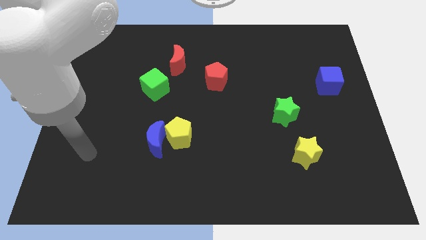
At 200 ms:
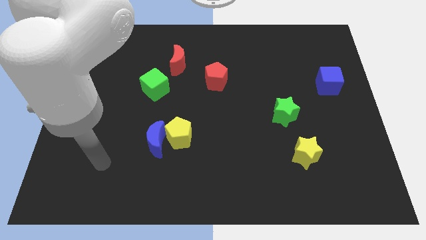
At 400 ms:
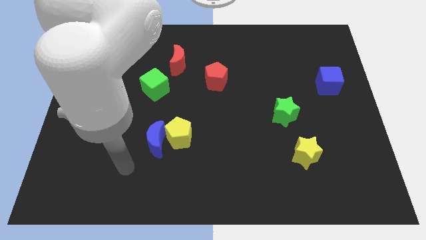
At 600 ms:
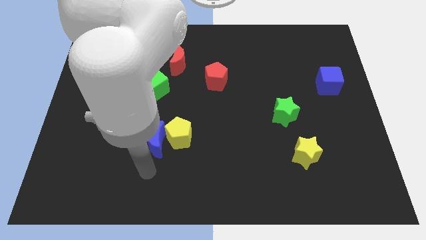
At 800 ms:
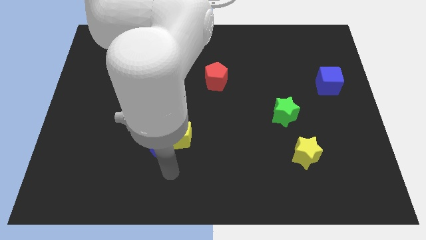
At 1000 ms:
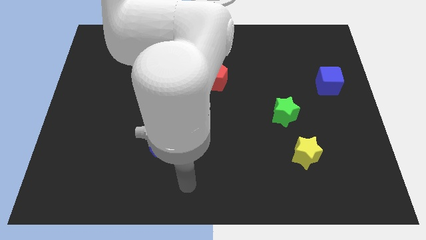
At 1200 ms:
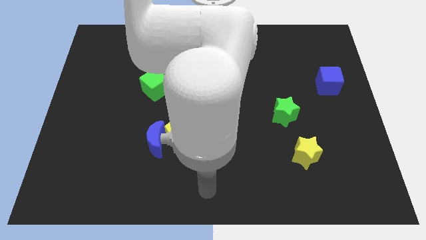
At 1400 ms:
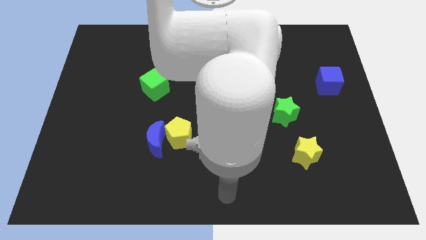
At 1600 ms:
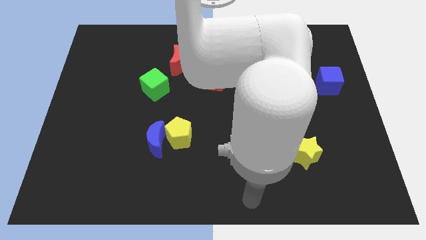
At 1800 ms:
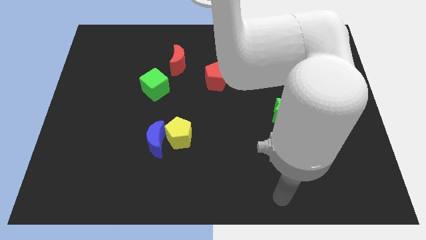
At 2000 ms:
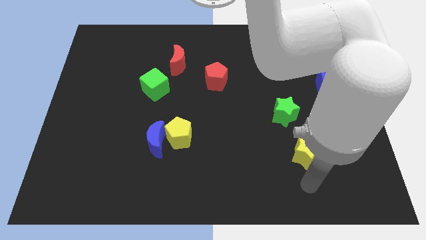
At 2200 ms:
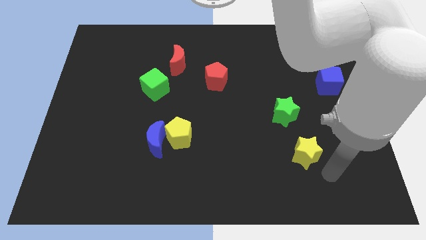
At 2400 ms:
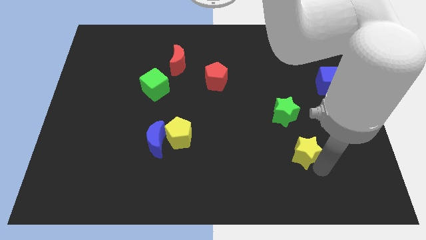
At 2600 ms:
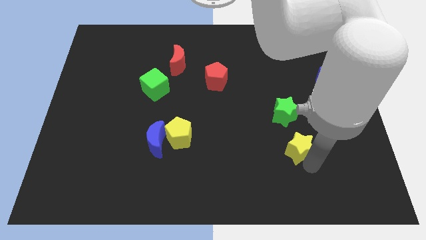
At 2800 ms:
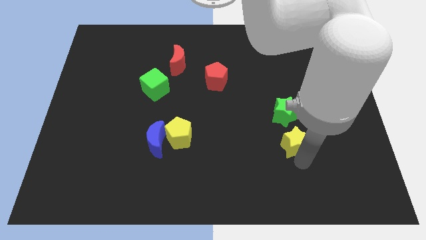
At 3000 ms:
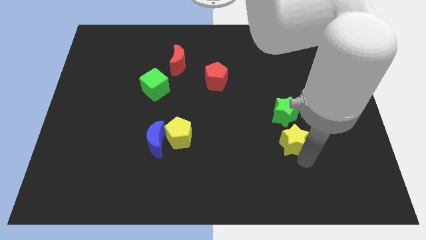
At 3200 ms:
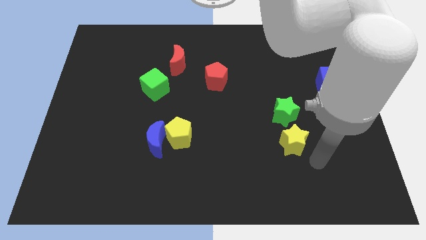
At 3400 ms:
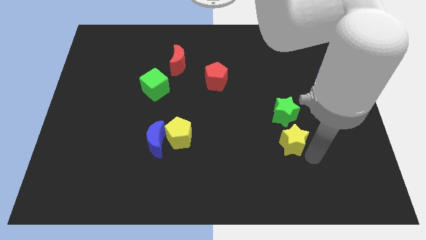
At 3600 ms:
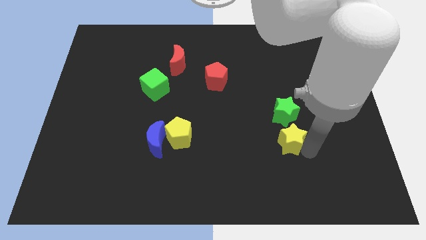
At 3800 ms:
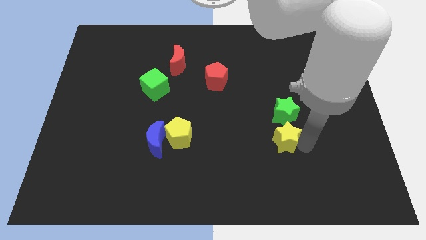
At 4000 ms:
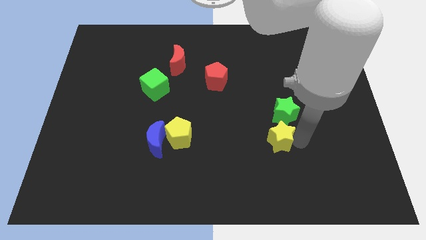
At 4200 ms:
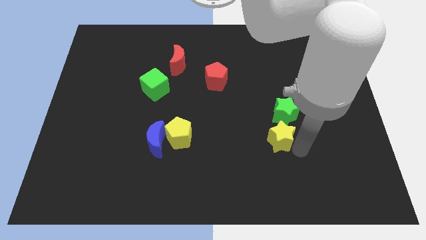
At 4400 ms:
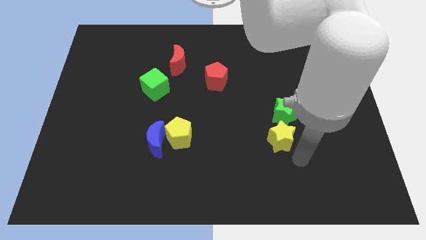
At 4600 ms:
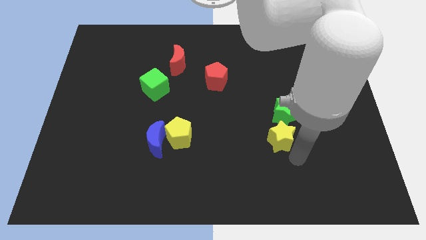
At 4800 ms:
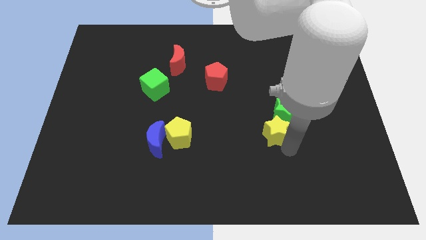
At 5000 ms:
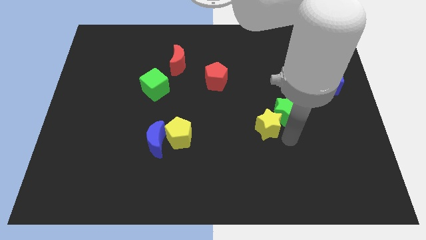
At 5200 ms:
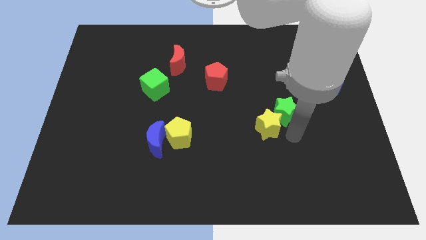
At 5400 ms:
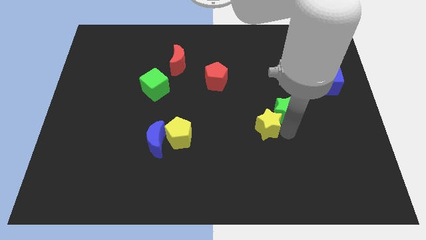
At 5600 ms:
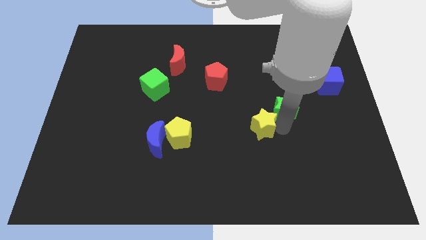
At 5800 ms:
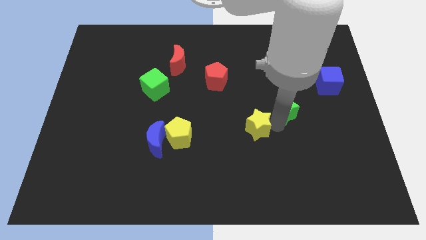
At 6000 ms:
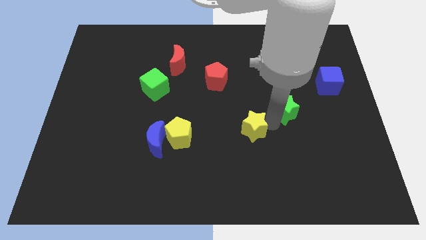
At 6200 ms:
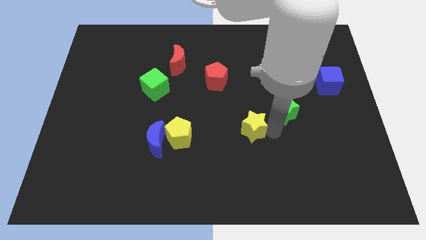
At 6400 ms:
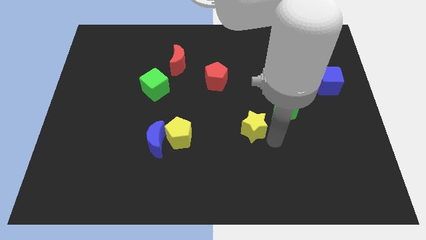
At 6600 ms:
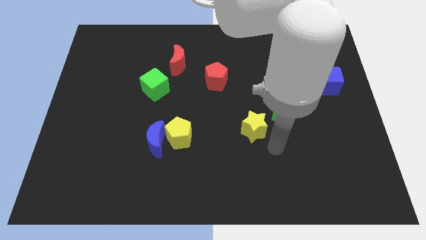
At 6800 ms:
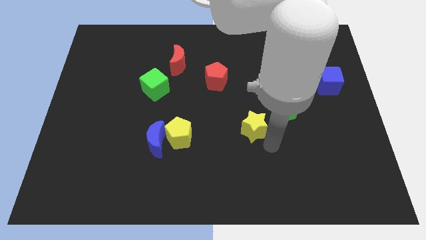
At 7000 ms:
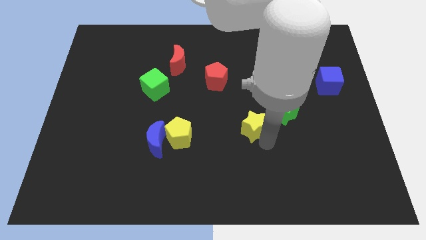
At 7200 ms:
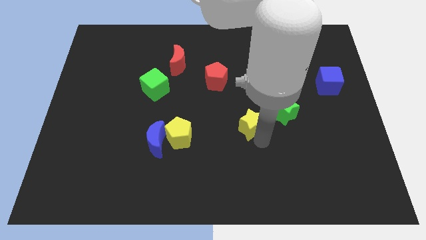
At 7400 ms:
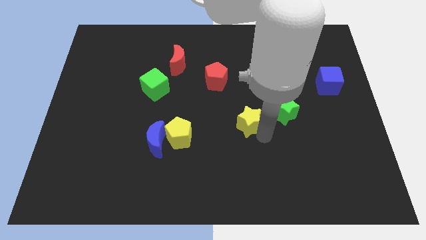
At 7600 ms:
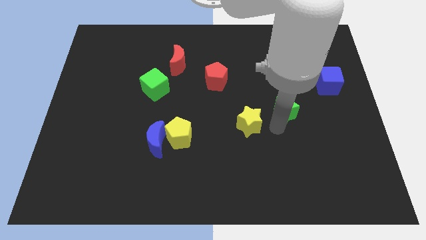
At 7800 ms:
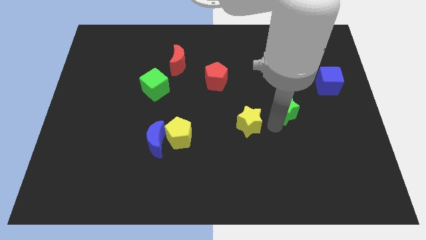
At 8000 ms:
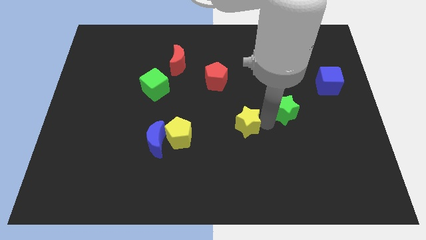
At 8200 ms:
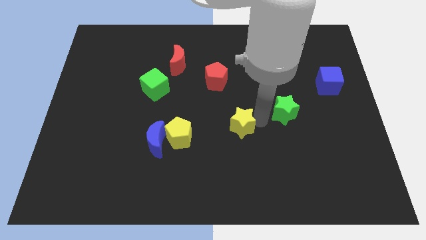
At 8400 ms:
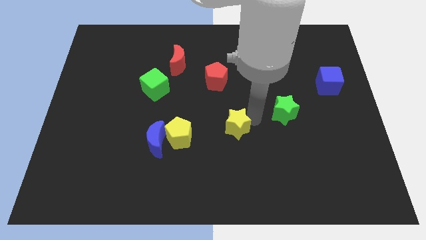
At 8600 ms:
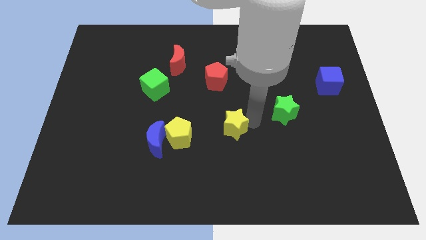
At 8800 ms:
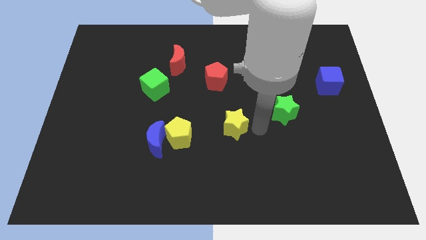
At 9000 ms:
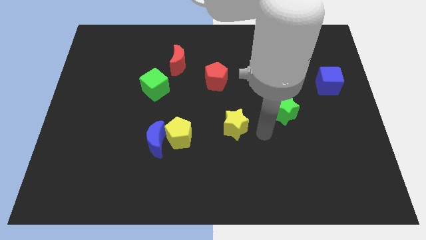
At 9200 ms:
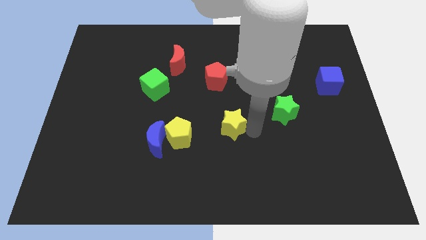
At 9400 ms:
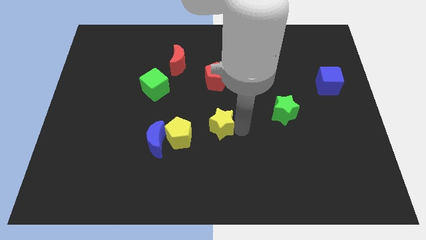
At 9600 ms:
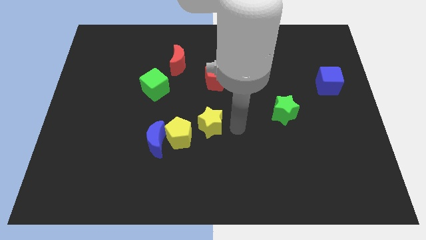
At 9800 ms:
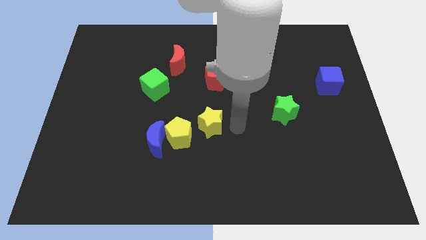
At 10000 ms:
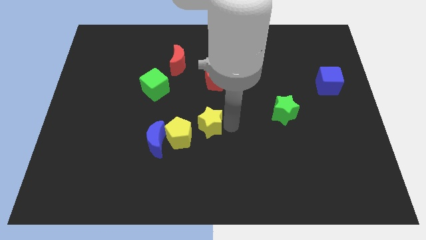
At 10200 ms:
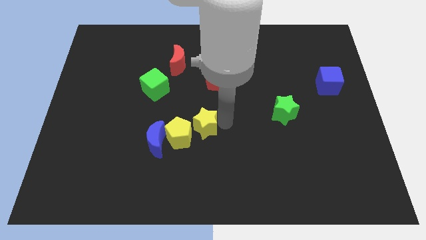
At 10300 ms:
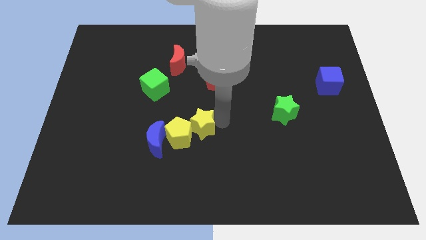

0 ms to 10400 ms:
slide the yellow star diagonally up and to the right of the blue moon

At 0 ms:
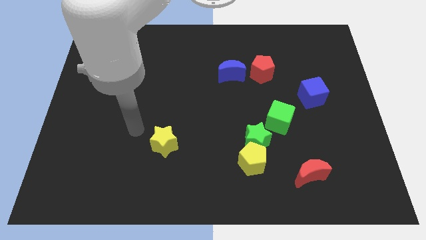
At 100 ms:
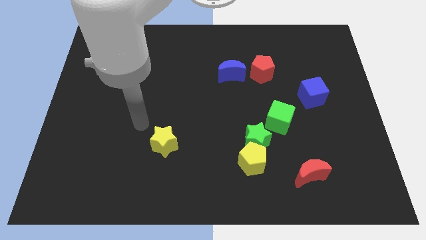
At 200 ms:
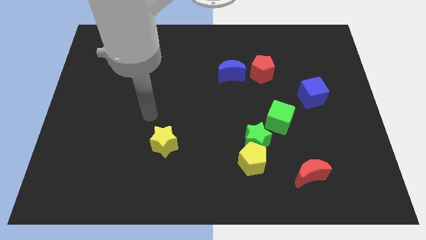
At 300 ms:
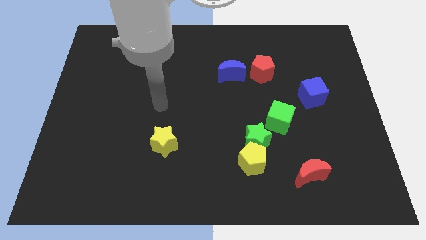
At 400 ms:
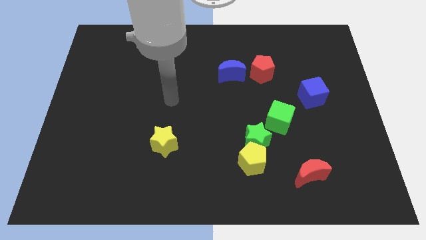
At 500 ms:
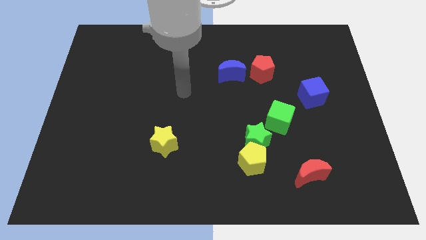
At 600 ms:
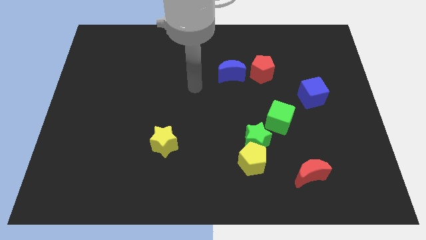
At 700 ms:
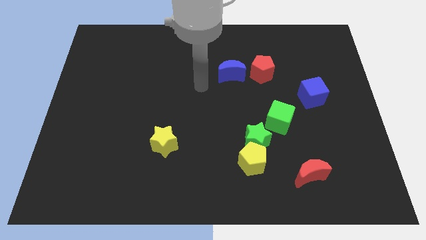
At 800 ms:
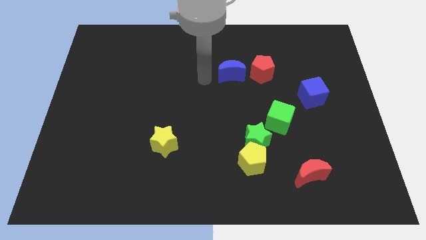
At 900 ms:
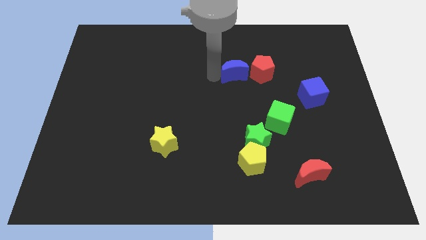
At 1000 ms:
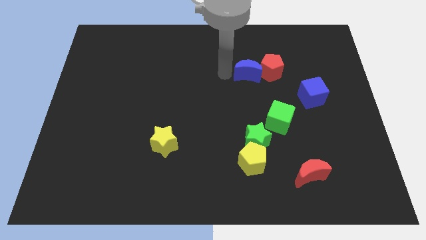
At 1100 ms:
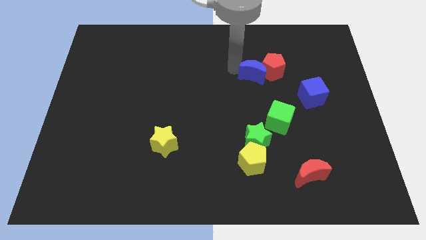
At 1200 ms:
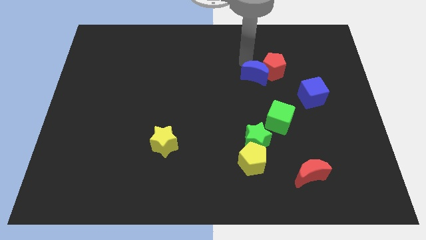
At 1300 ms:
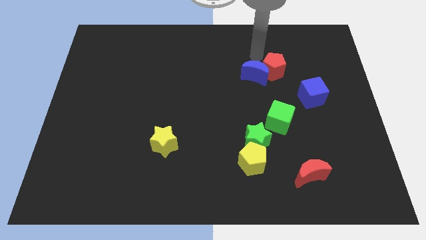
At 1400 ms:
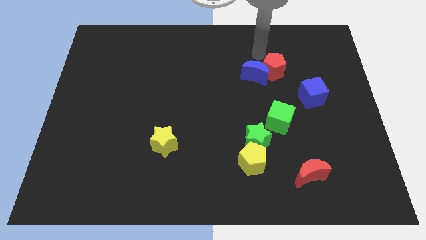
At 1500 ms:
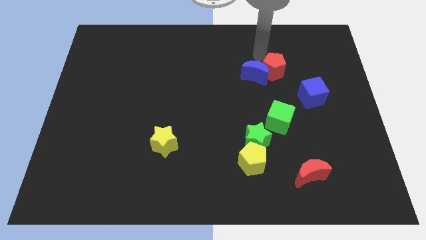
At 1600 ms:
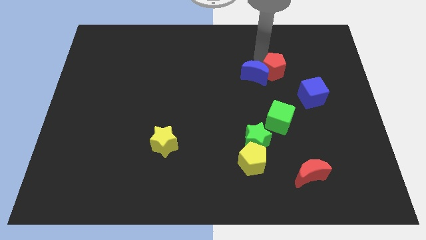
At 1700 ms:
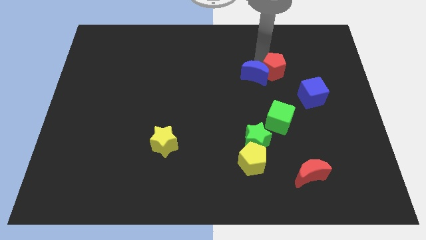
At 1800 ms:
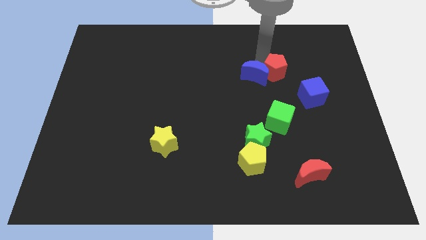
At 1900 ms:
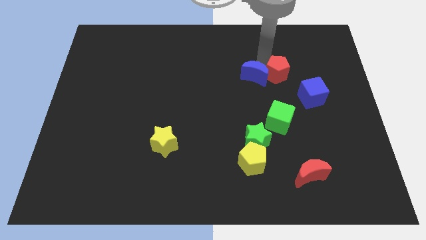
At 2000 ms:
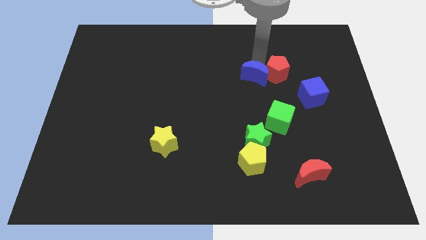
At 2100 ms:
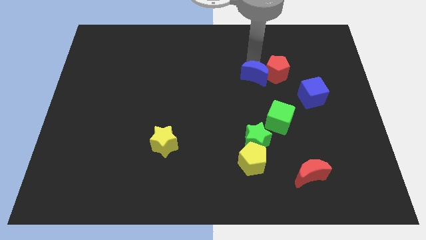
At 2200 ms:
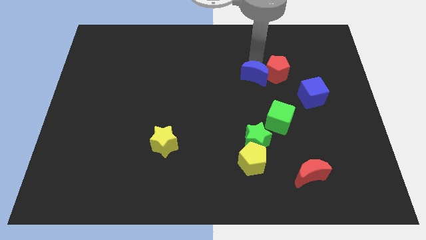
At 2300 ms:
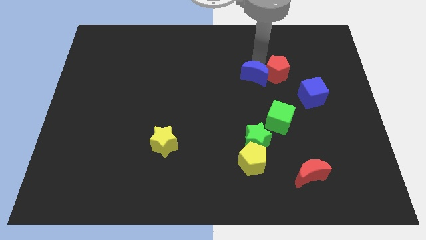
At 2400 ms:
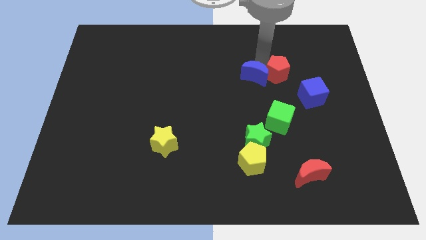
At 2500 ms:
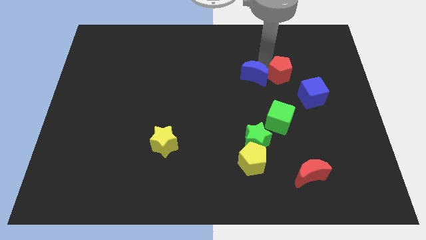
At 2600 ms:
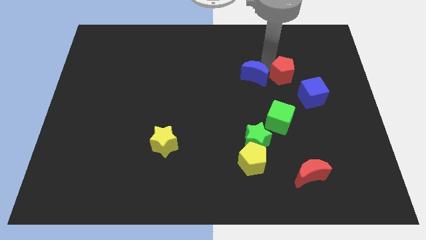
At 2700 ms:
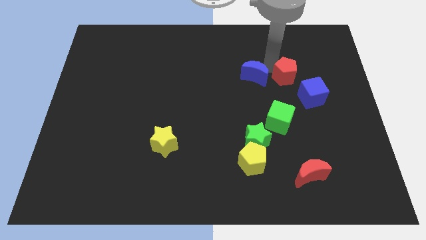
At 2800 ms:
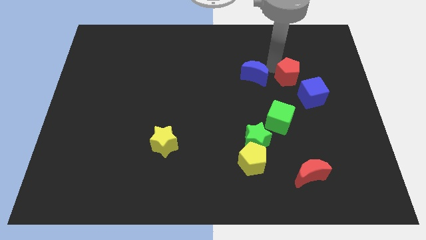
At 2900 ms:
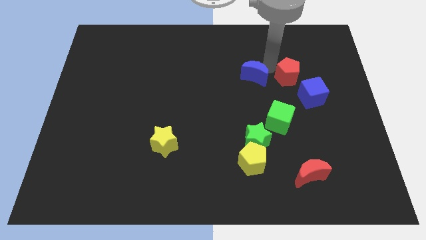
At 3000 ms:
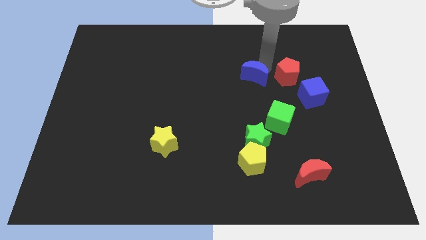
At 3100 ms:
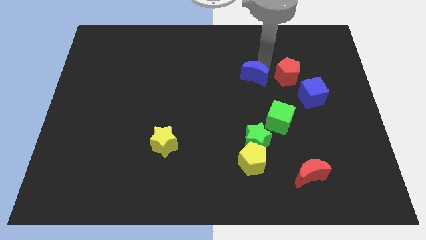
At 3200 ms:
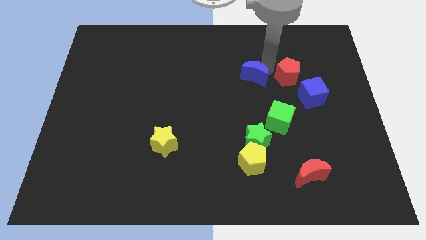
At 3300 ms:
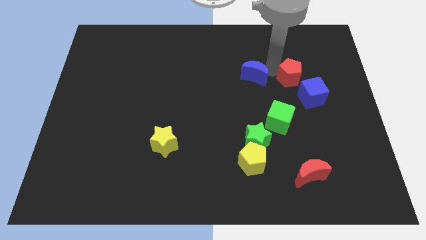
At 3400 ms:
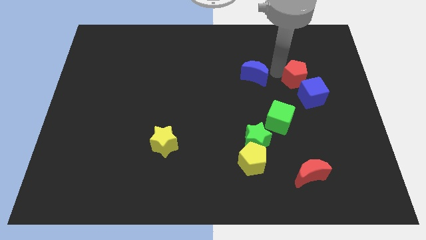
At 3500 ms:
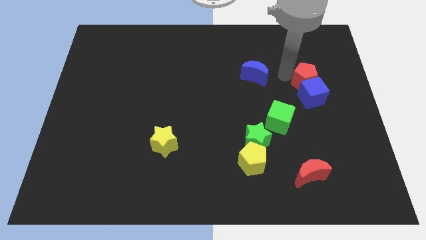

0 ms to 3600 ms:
slide the red pentagon to the top right of the blue cube
